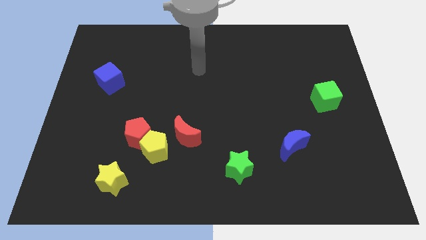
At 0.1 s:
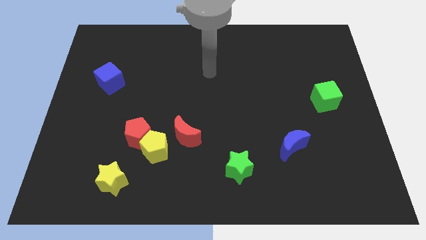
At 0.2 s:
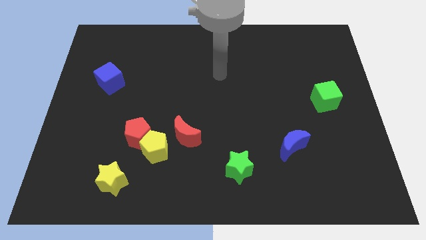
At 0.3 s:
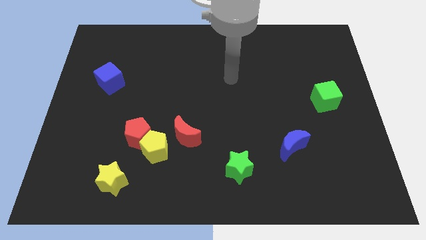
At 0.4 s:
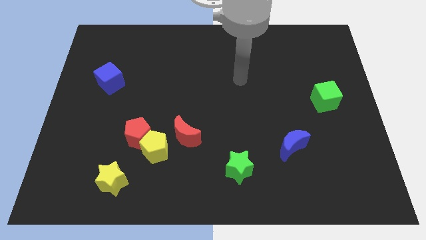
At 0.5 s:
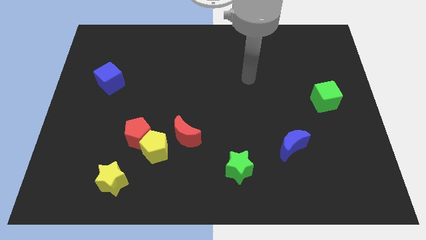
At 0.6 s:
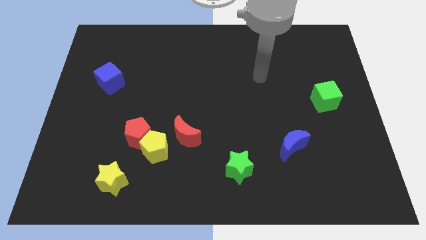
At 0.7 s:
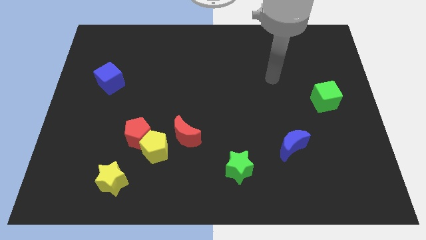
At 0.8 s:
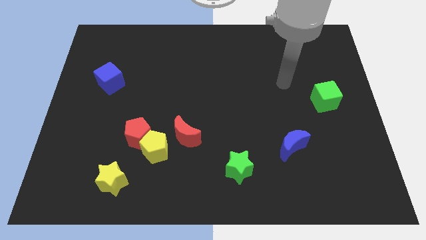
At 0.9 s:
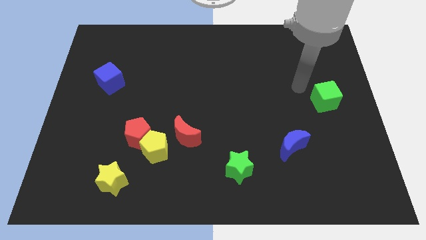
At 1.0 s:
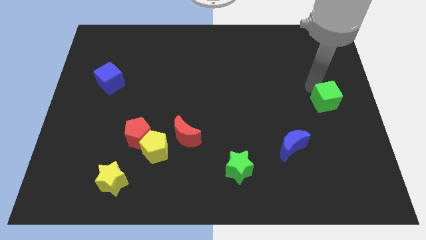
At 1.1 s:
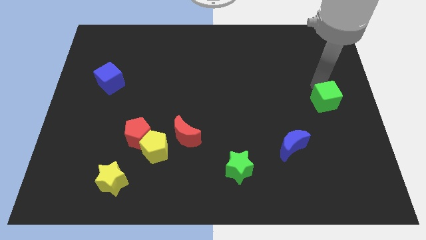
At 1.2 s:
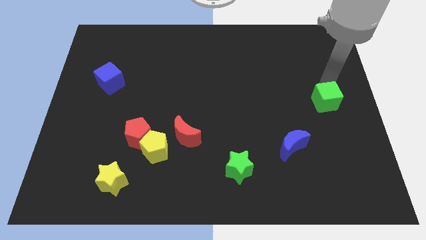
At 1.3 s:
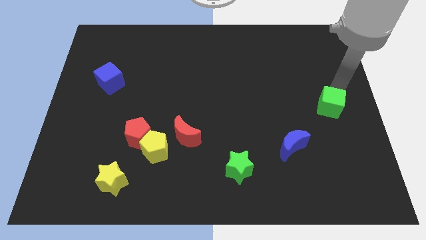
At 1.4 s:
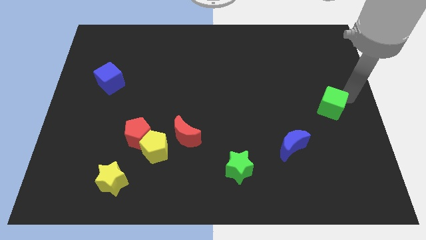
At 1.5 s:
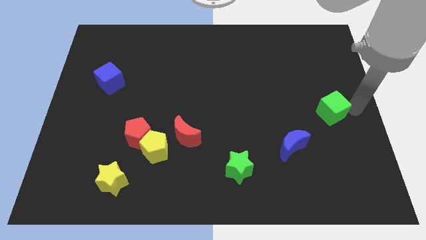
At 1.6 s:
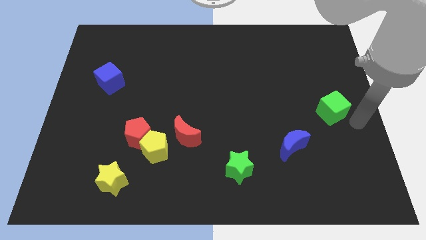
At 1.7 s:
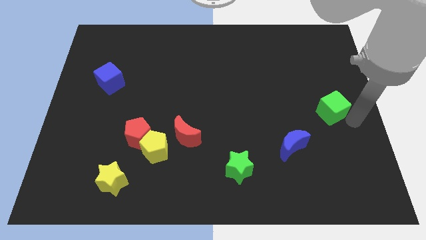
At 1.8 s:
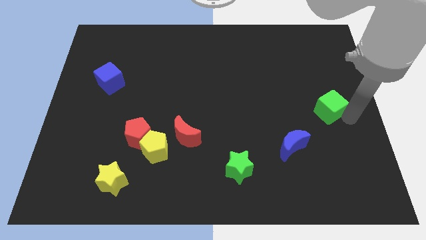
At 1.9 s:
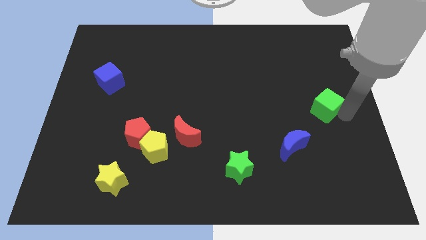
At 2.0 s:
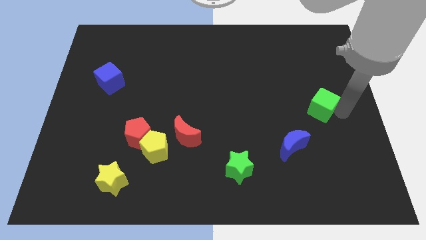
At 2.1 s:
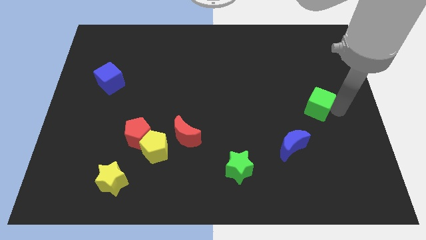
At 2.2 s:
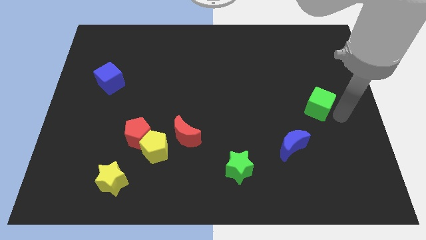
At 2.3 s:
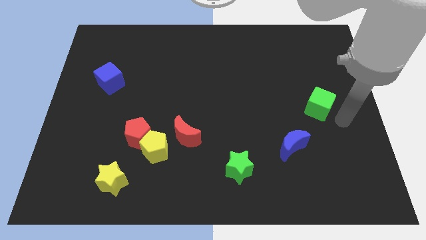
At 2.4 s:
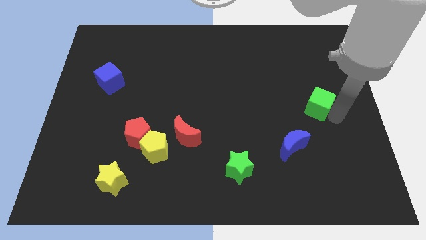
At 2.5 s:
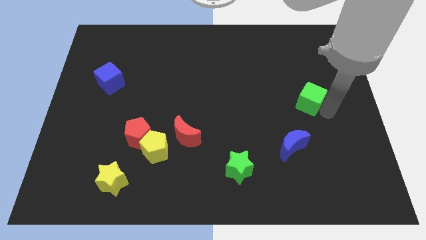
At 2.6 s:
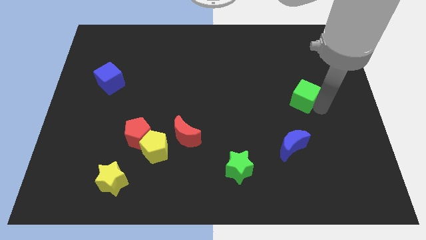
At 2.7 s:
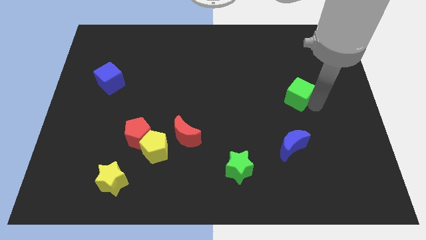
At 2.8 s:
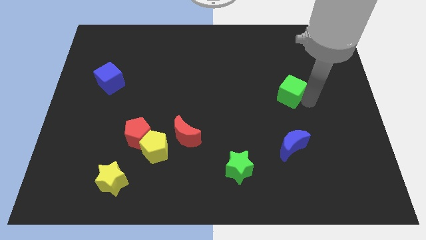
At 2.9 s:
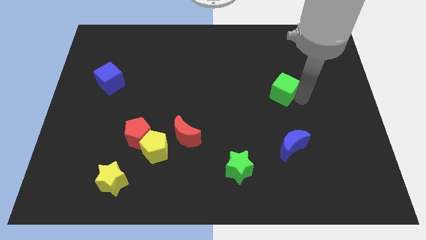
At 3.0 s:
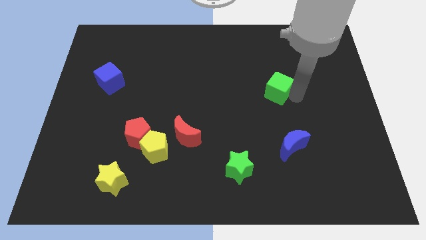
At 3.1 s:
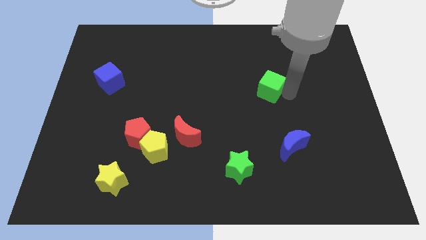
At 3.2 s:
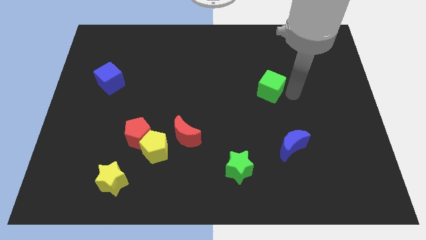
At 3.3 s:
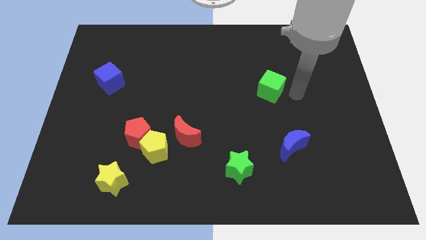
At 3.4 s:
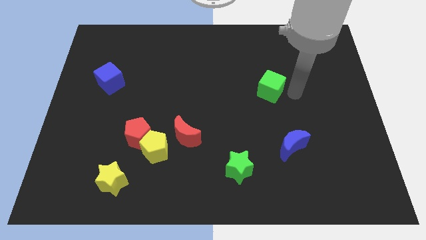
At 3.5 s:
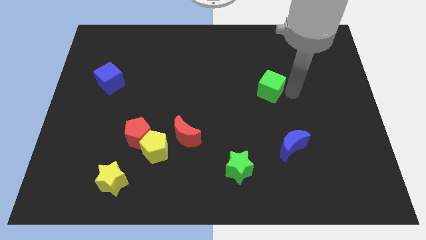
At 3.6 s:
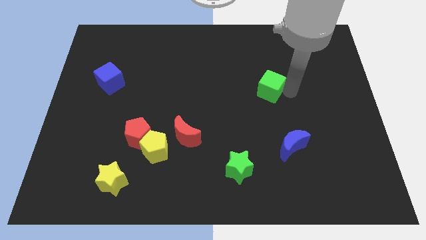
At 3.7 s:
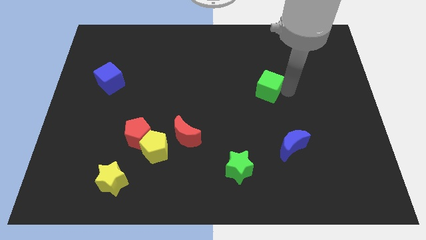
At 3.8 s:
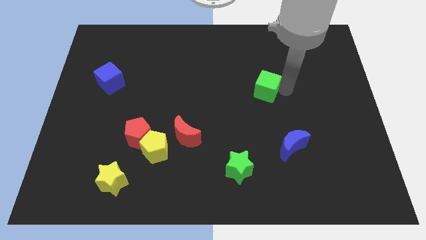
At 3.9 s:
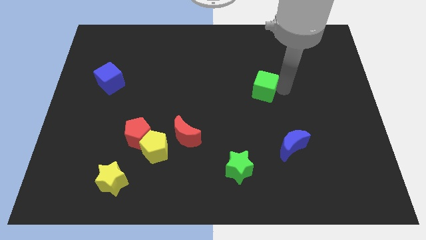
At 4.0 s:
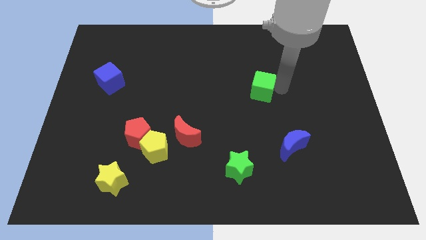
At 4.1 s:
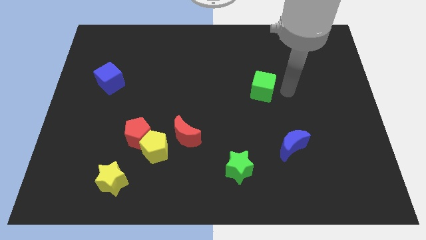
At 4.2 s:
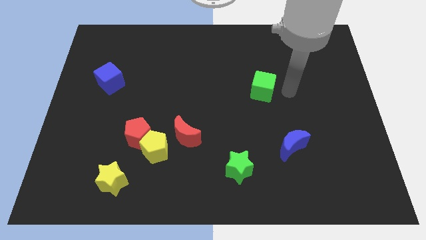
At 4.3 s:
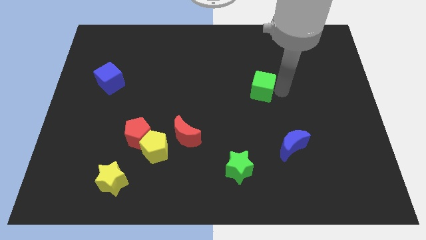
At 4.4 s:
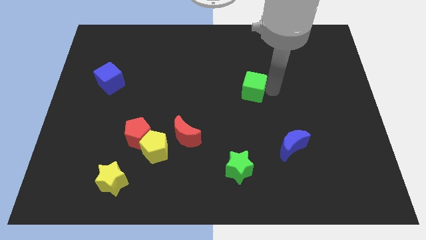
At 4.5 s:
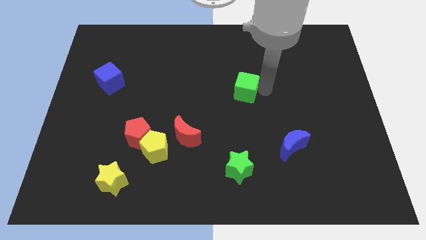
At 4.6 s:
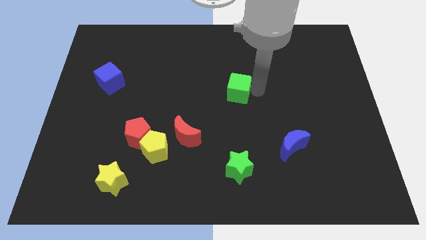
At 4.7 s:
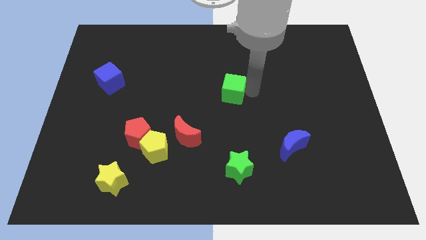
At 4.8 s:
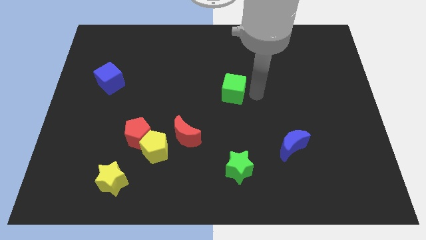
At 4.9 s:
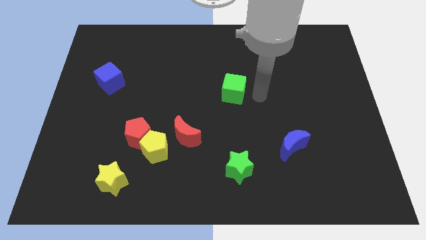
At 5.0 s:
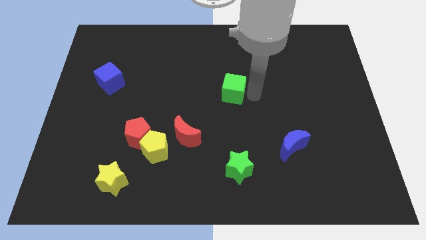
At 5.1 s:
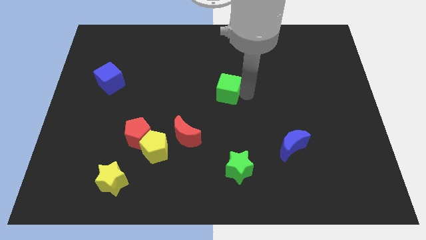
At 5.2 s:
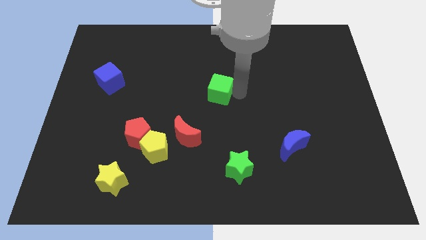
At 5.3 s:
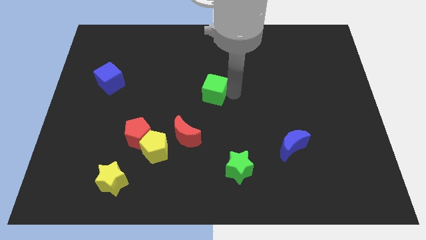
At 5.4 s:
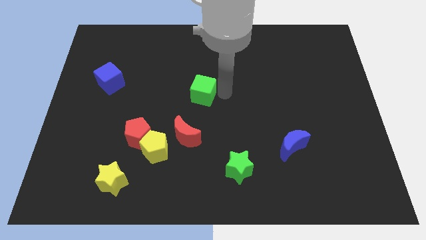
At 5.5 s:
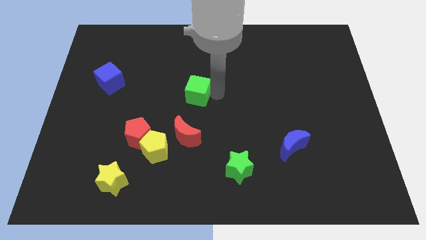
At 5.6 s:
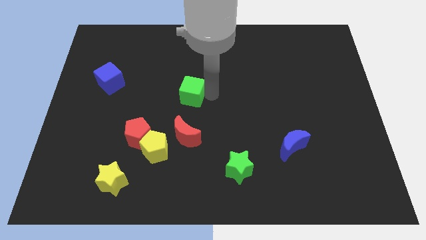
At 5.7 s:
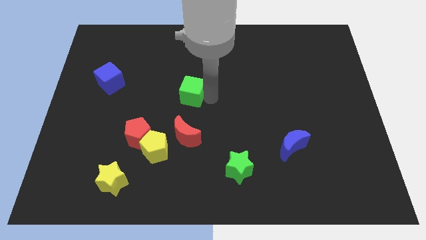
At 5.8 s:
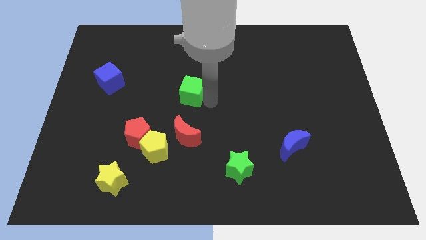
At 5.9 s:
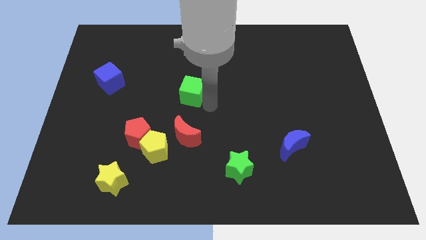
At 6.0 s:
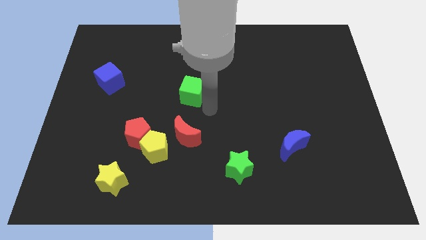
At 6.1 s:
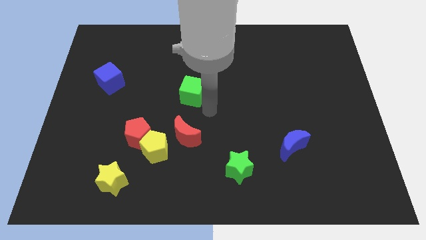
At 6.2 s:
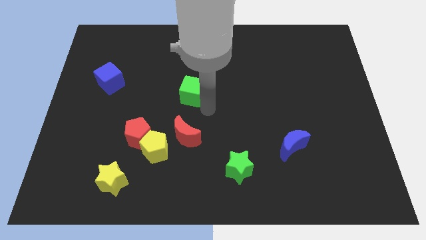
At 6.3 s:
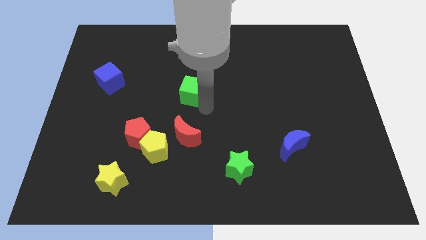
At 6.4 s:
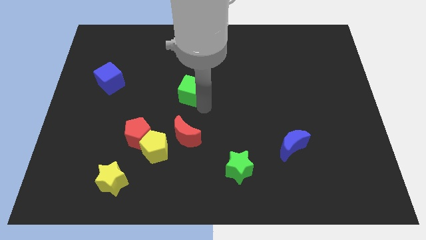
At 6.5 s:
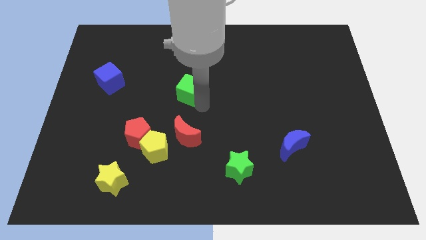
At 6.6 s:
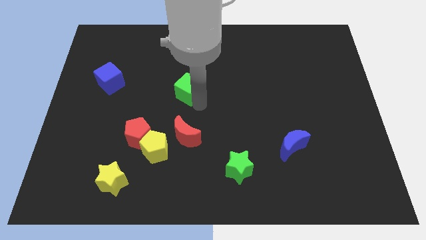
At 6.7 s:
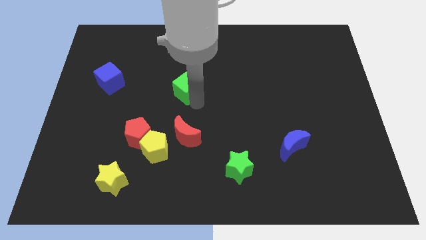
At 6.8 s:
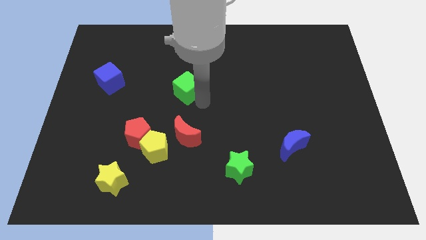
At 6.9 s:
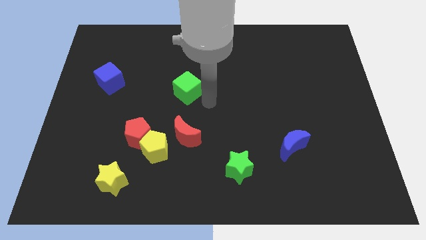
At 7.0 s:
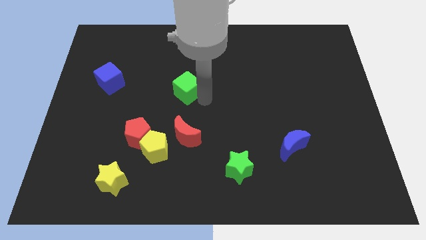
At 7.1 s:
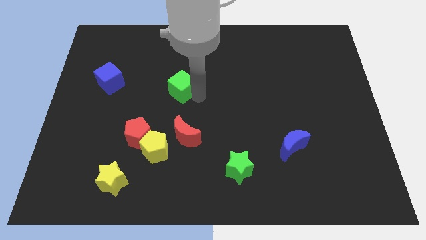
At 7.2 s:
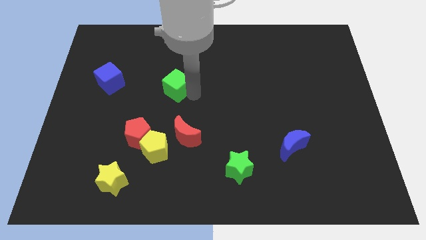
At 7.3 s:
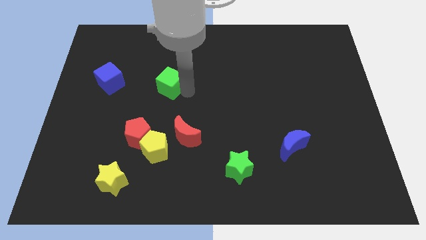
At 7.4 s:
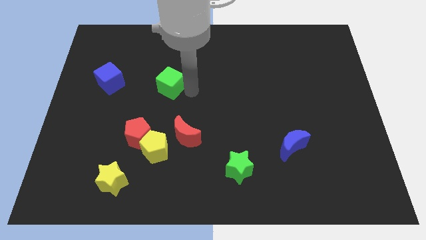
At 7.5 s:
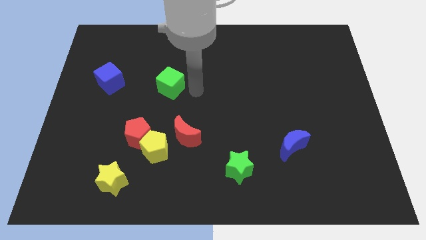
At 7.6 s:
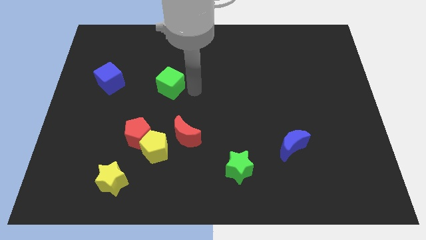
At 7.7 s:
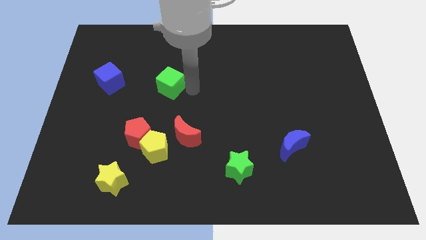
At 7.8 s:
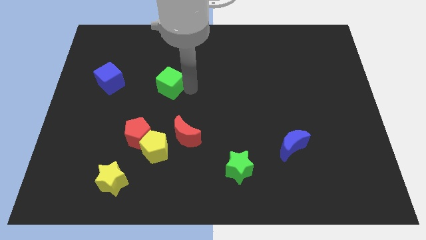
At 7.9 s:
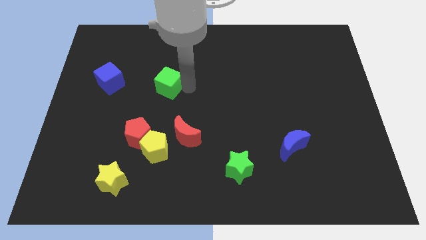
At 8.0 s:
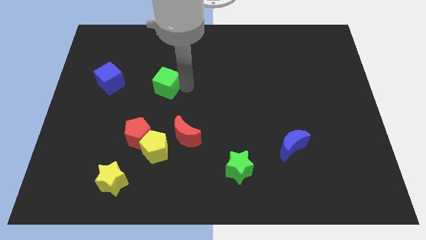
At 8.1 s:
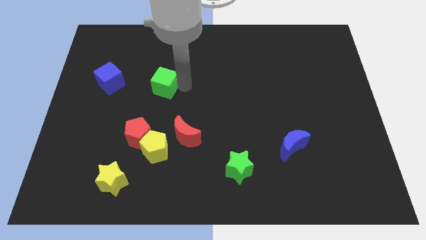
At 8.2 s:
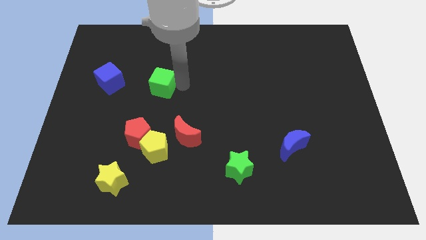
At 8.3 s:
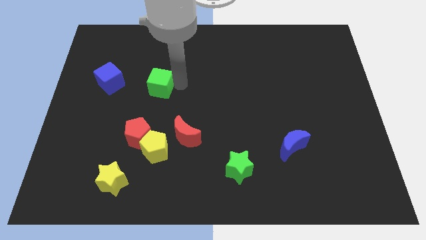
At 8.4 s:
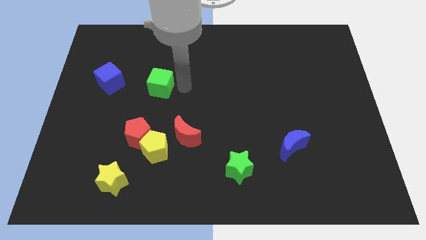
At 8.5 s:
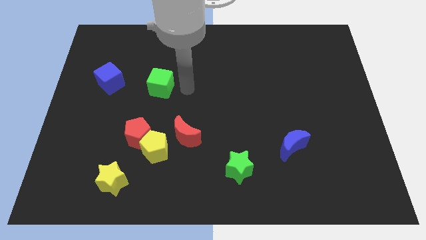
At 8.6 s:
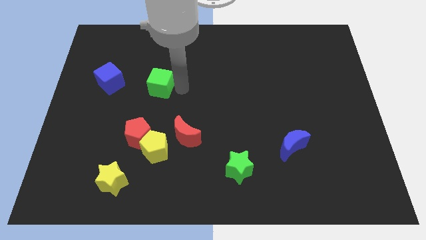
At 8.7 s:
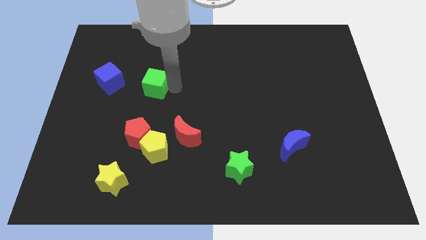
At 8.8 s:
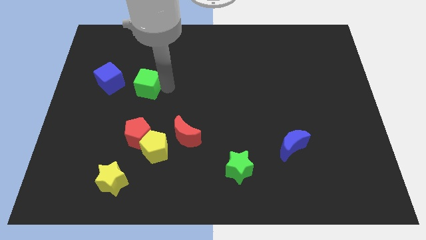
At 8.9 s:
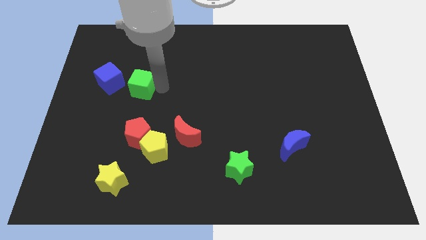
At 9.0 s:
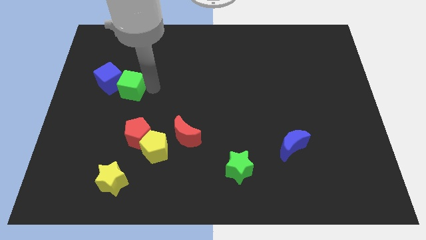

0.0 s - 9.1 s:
move the green cube next to the blue cube
